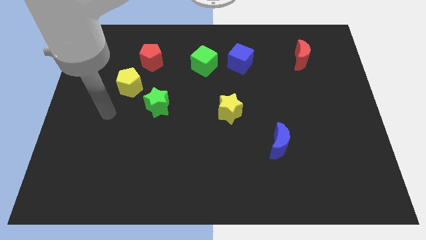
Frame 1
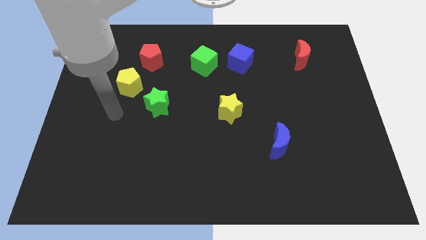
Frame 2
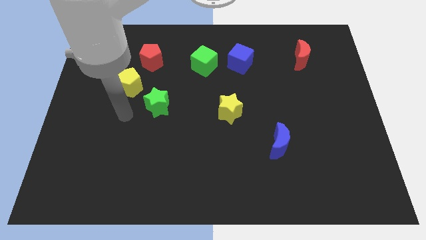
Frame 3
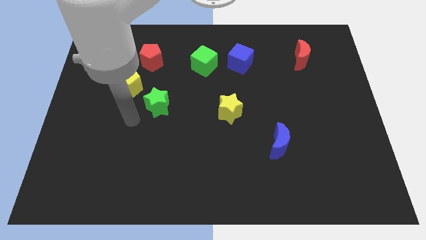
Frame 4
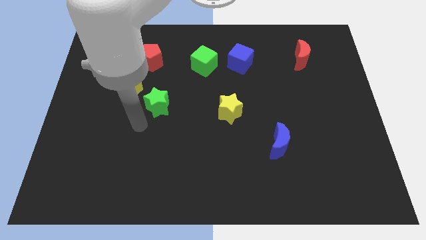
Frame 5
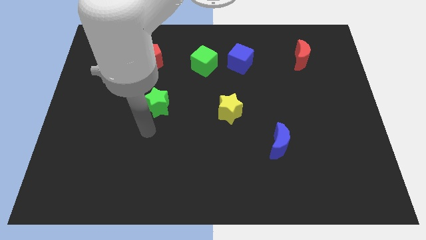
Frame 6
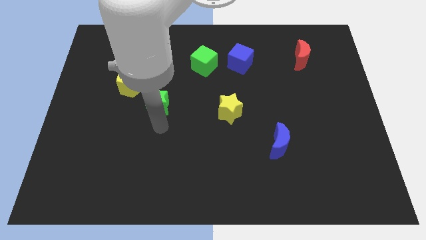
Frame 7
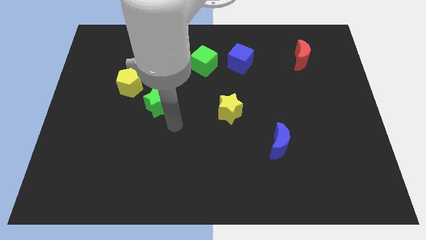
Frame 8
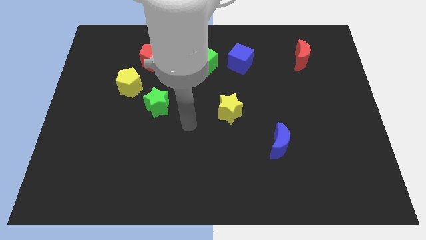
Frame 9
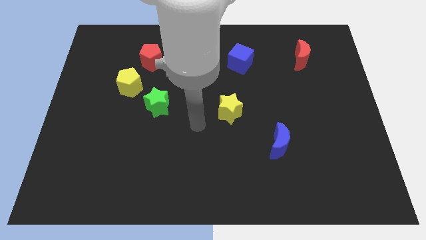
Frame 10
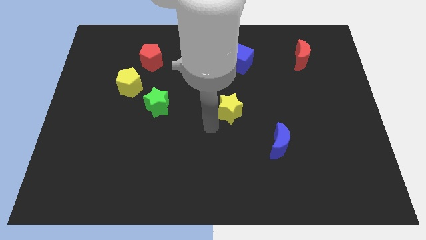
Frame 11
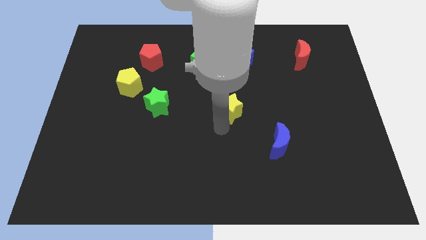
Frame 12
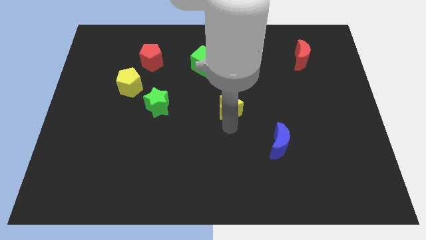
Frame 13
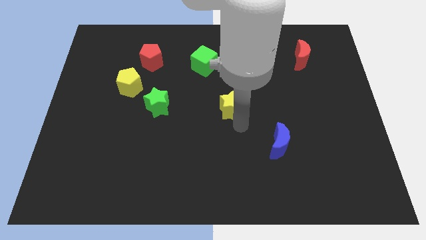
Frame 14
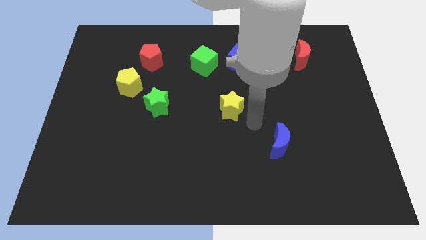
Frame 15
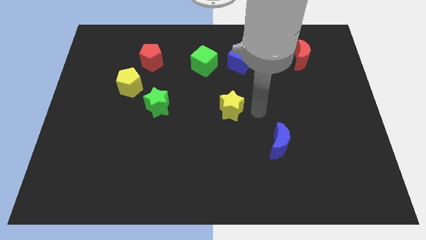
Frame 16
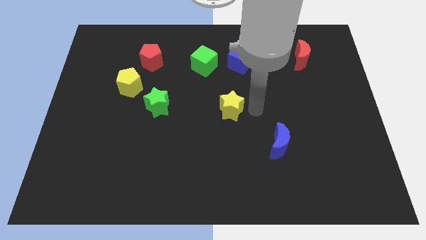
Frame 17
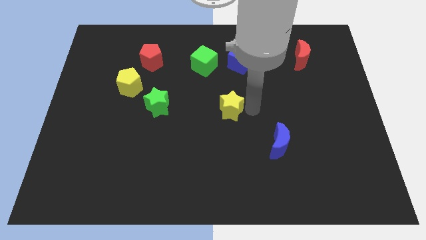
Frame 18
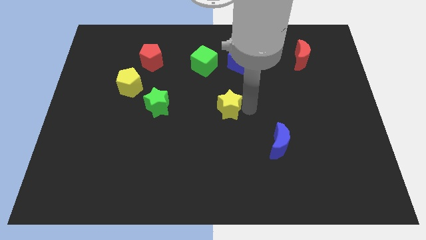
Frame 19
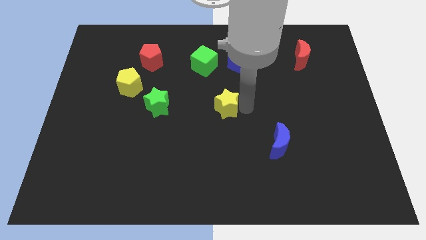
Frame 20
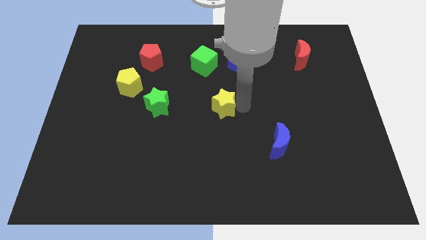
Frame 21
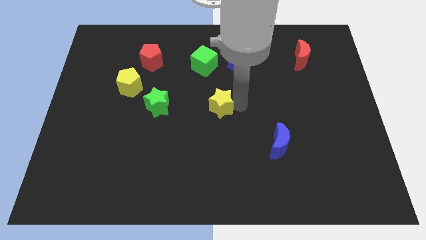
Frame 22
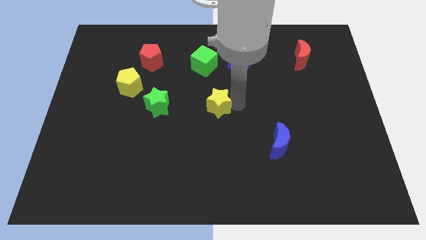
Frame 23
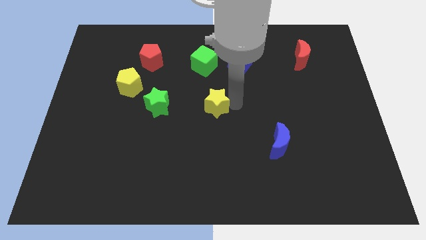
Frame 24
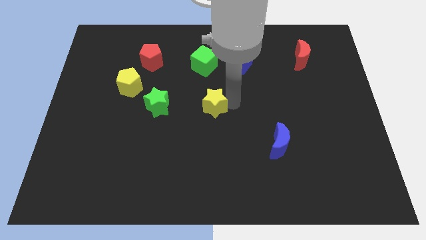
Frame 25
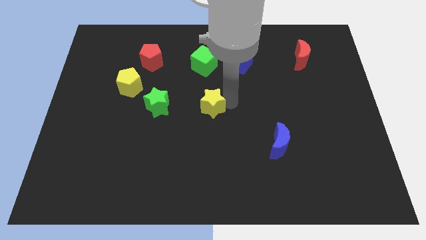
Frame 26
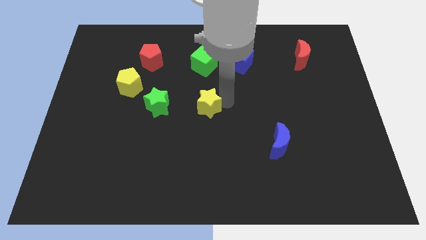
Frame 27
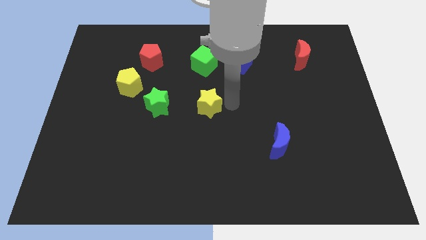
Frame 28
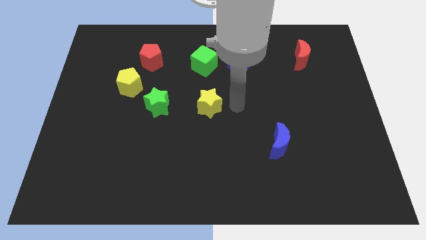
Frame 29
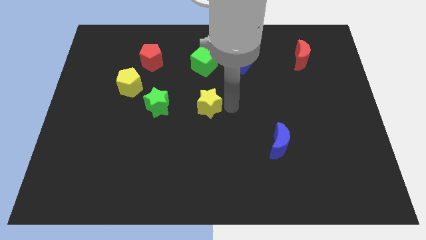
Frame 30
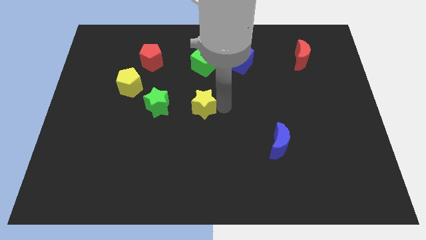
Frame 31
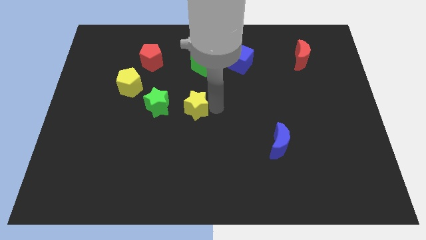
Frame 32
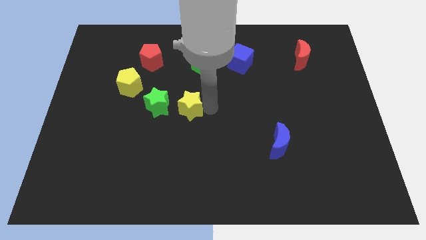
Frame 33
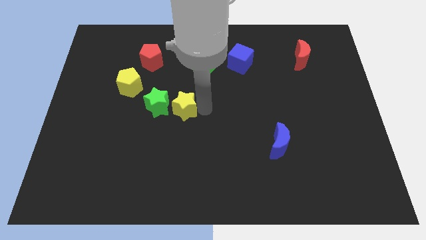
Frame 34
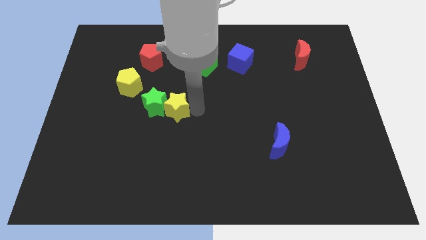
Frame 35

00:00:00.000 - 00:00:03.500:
push the yellow star next to the green star

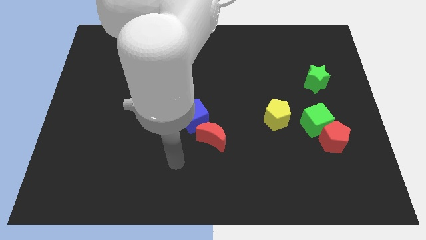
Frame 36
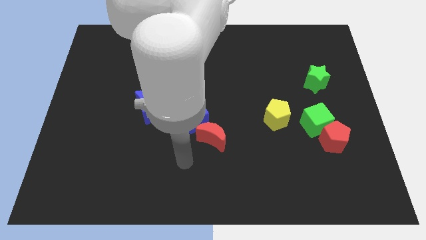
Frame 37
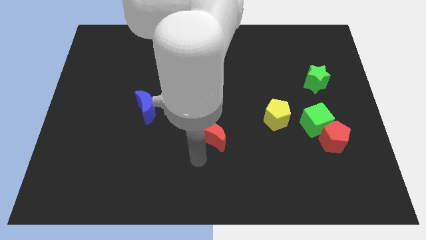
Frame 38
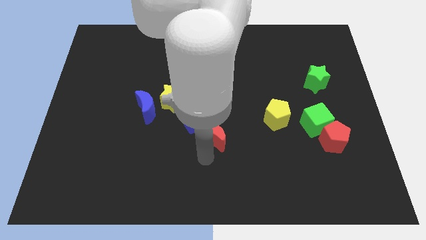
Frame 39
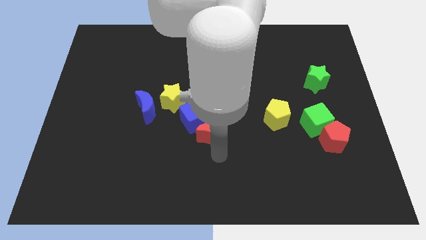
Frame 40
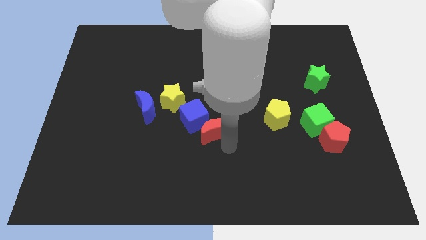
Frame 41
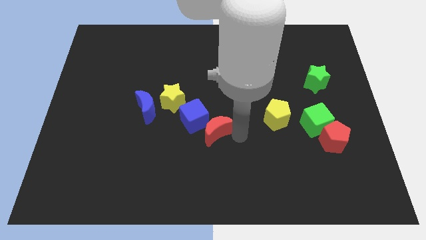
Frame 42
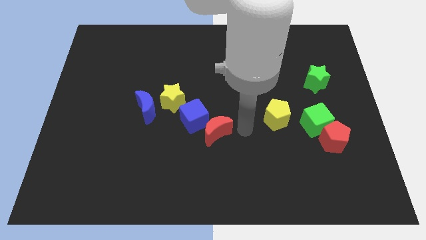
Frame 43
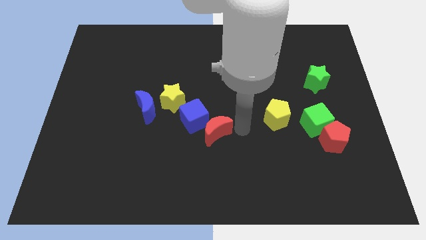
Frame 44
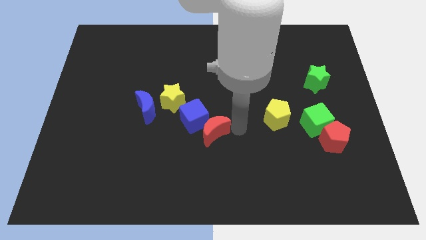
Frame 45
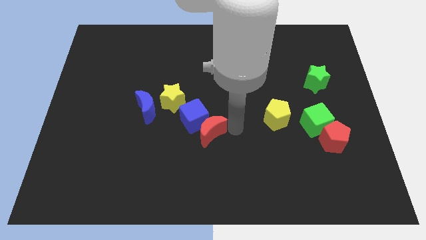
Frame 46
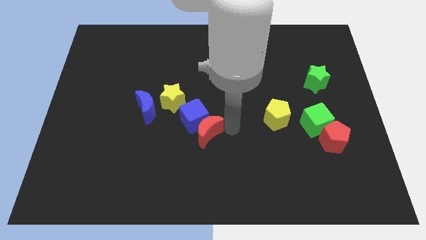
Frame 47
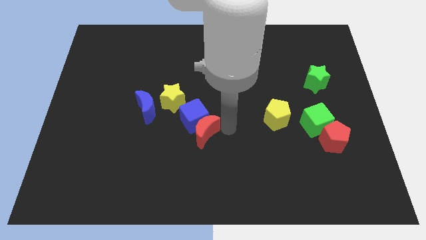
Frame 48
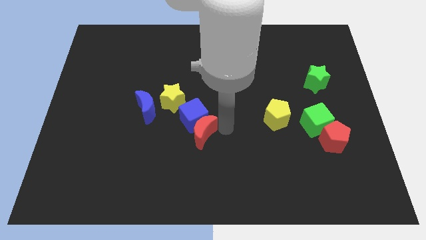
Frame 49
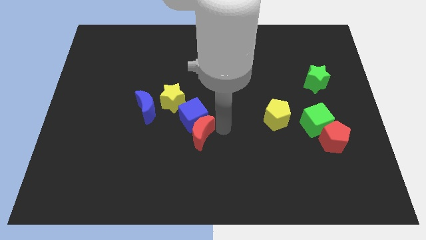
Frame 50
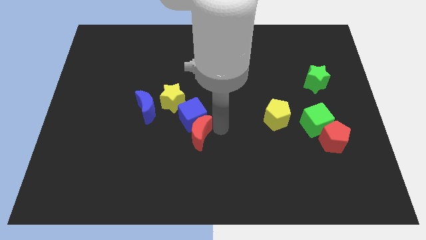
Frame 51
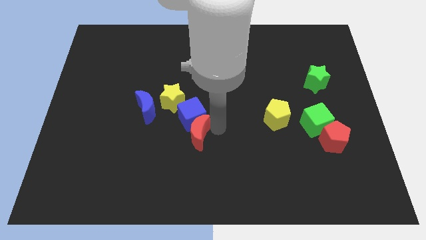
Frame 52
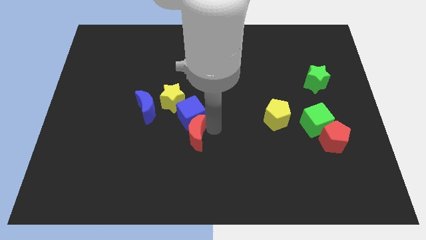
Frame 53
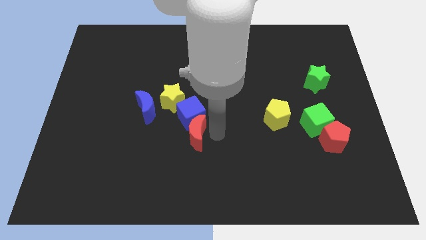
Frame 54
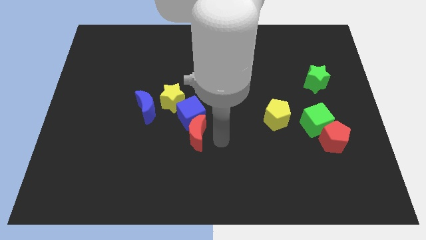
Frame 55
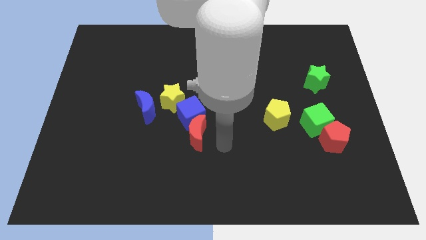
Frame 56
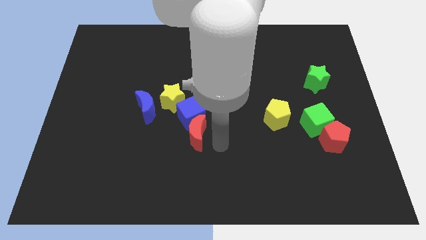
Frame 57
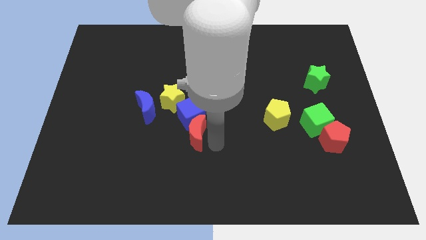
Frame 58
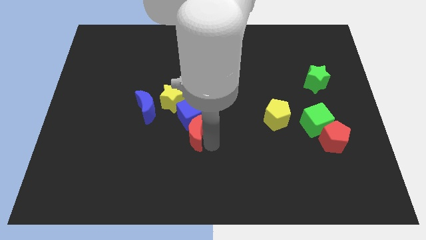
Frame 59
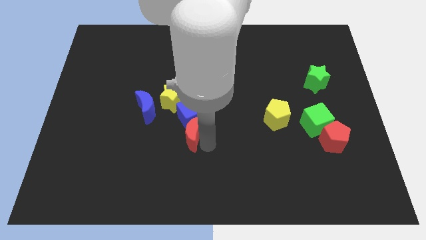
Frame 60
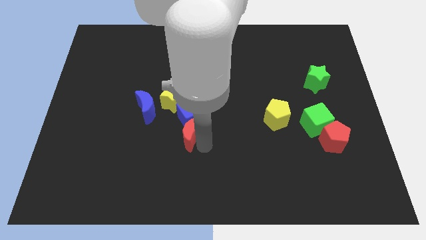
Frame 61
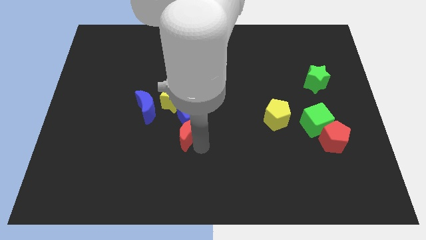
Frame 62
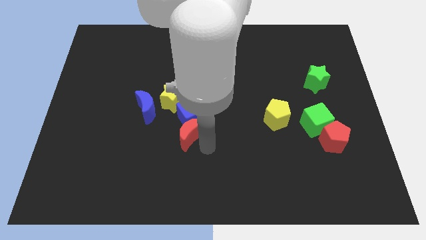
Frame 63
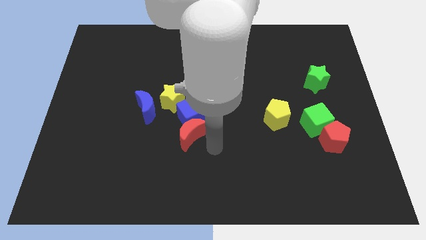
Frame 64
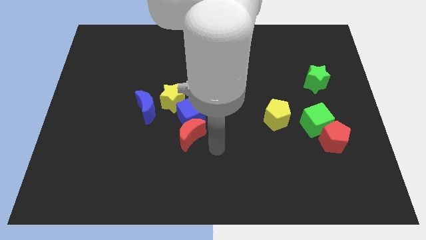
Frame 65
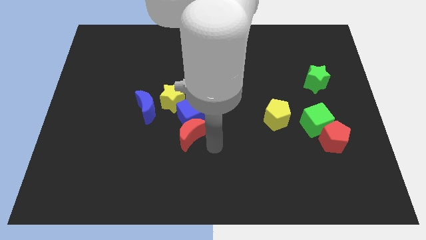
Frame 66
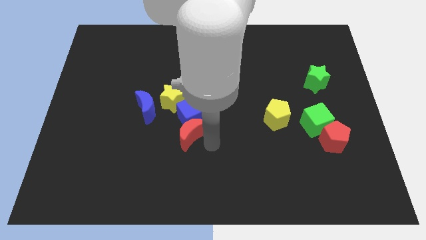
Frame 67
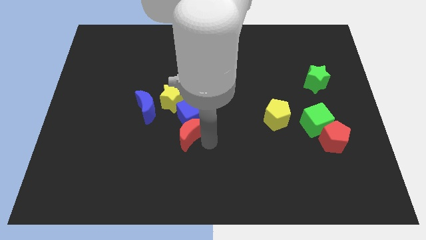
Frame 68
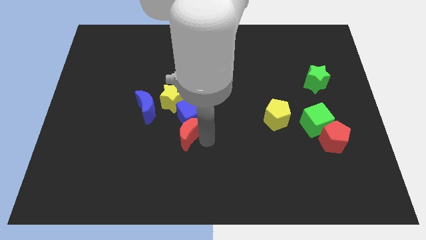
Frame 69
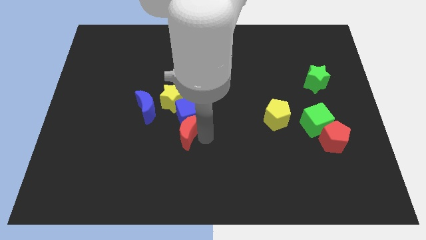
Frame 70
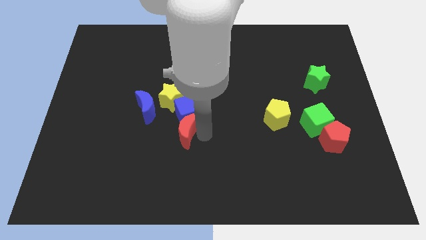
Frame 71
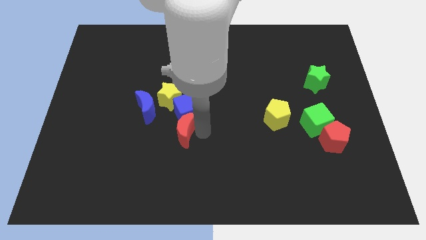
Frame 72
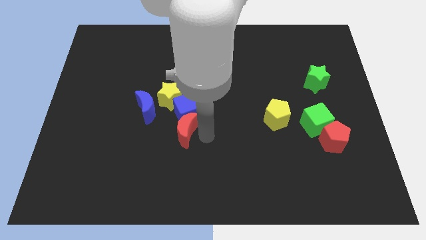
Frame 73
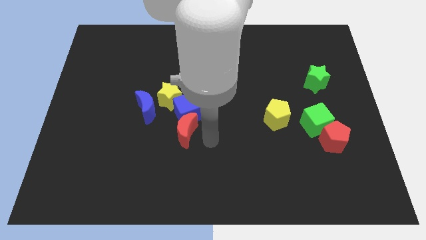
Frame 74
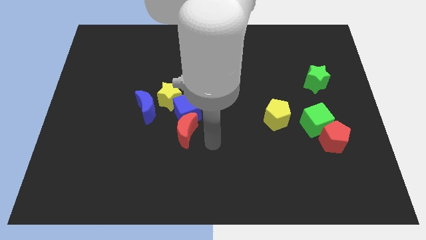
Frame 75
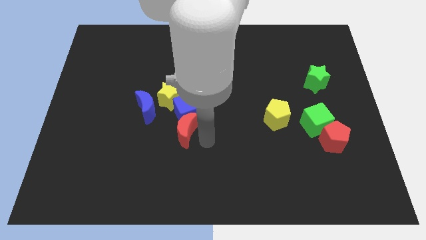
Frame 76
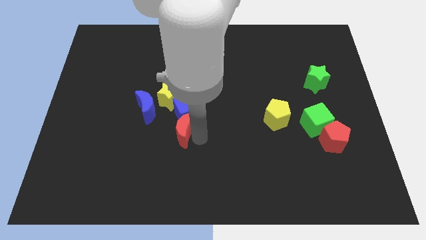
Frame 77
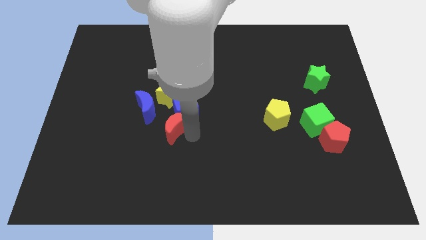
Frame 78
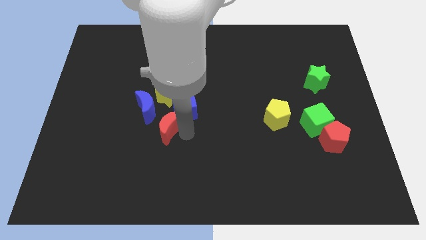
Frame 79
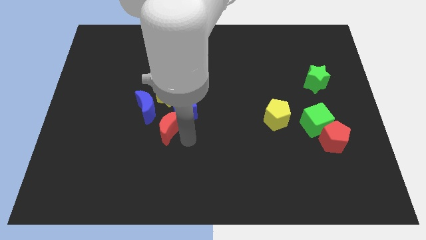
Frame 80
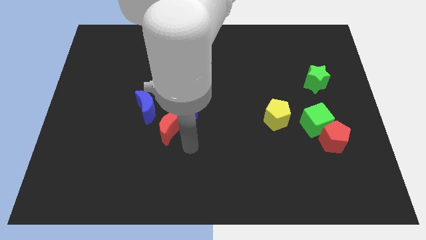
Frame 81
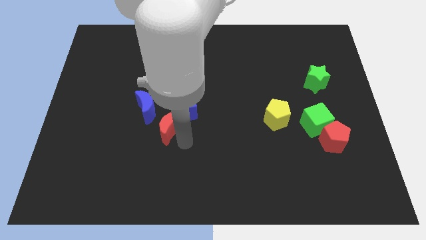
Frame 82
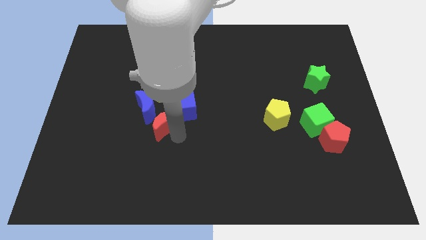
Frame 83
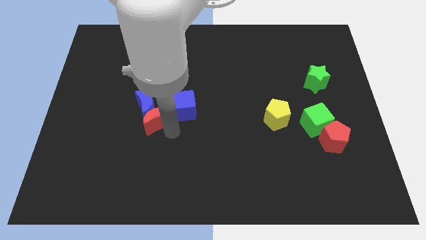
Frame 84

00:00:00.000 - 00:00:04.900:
push the red moon to the blue moon
